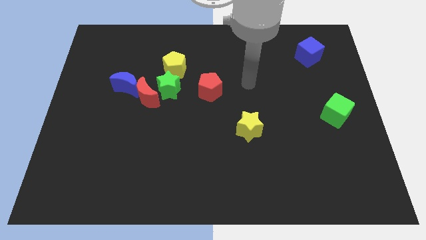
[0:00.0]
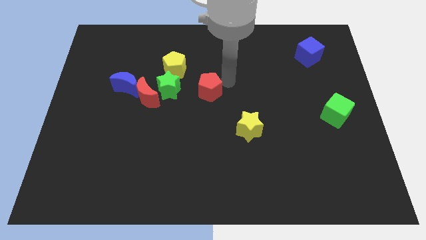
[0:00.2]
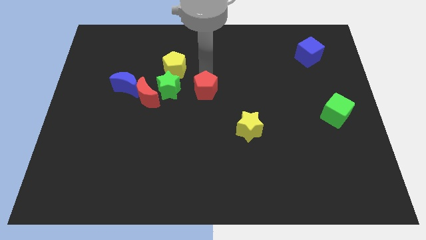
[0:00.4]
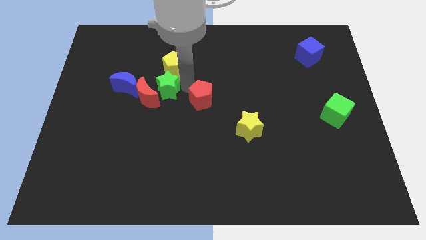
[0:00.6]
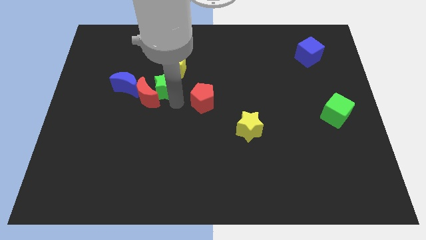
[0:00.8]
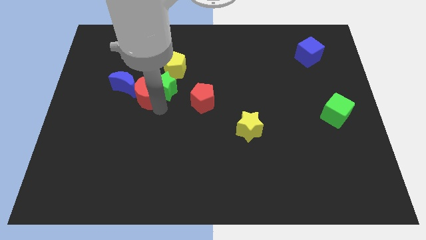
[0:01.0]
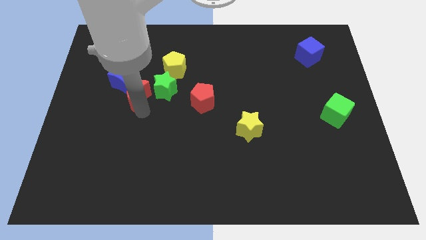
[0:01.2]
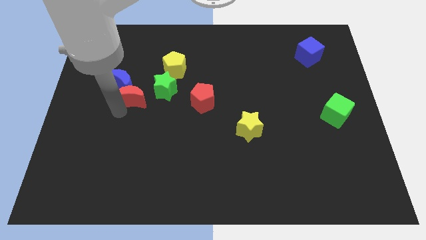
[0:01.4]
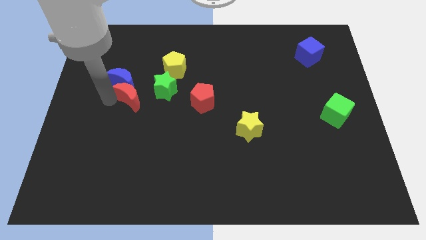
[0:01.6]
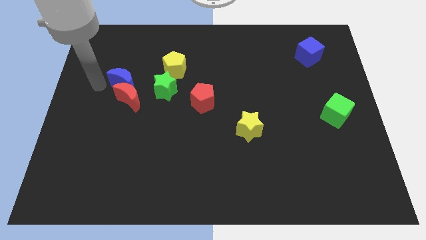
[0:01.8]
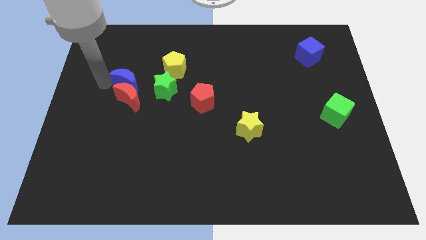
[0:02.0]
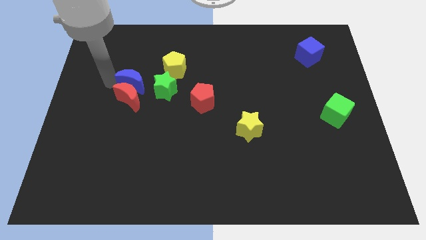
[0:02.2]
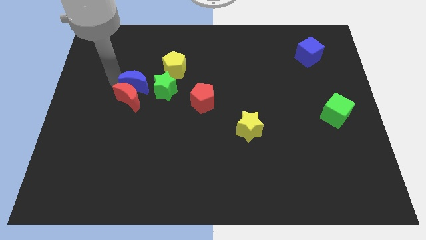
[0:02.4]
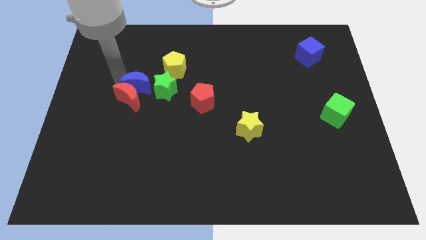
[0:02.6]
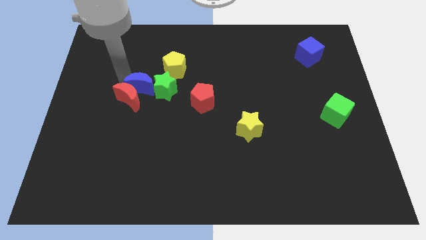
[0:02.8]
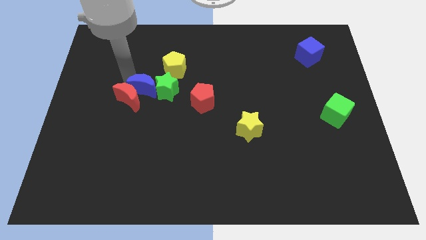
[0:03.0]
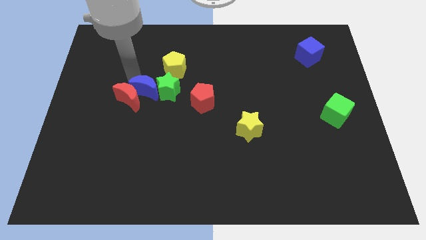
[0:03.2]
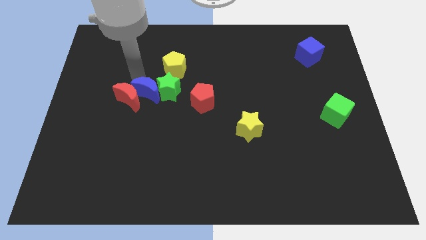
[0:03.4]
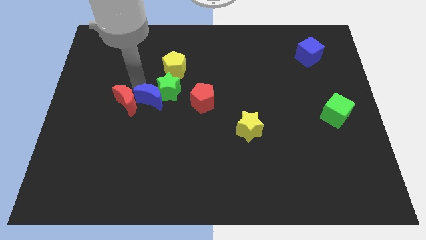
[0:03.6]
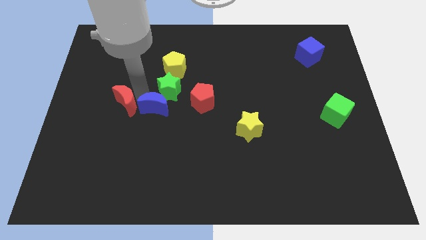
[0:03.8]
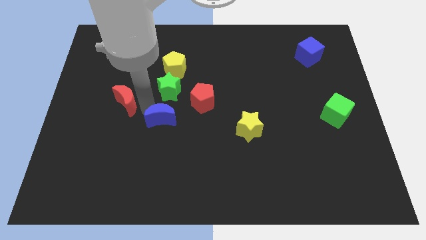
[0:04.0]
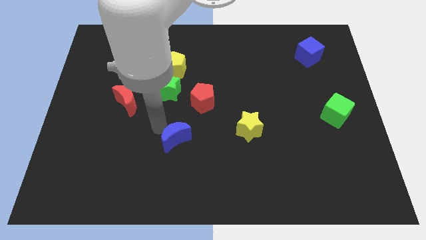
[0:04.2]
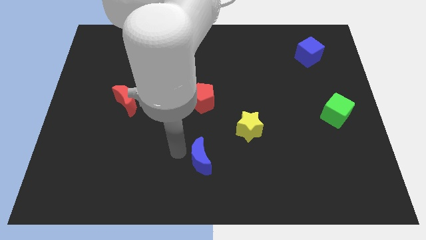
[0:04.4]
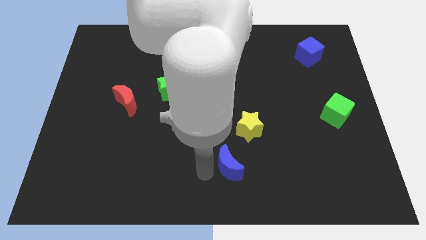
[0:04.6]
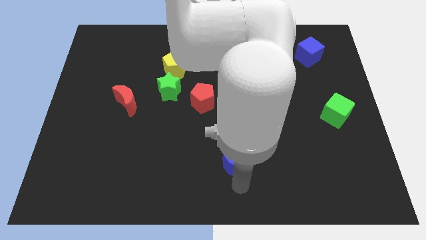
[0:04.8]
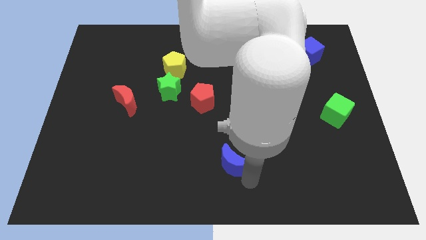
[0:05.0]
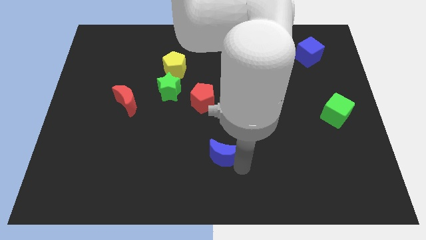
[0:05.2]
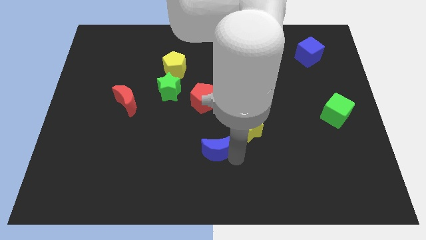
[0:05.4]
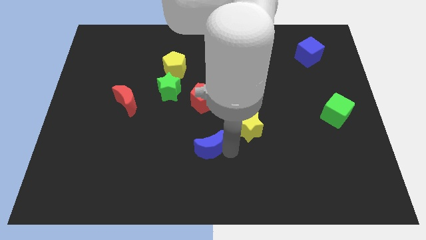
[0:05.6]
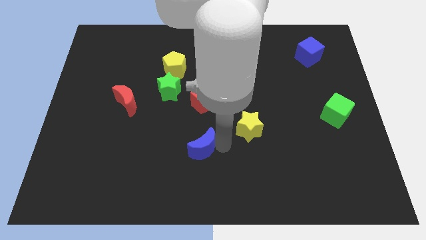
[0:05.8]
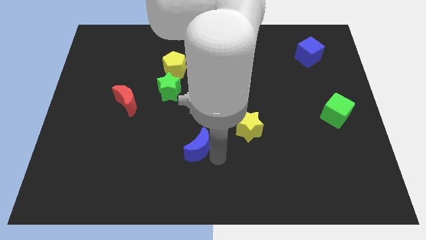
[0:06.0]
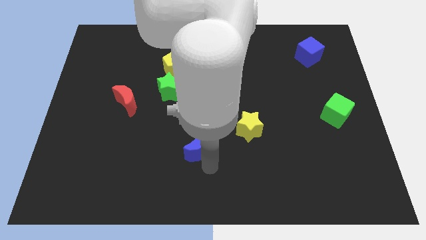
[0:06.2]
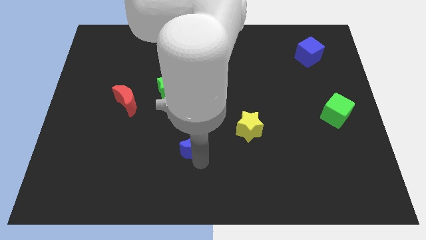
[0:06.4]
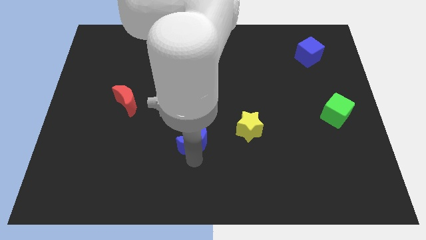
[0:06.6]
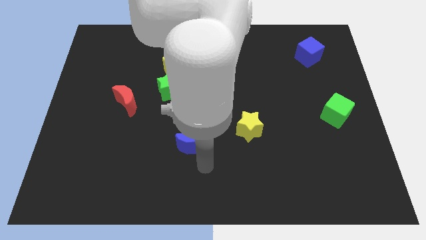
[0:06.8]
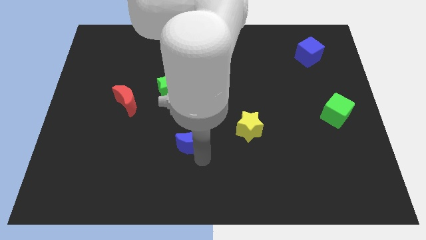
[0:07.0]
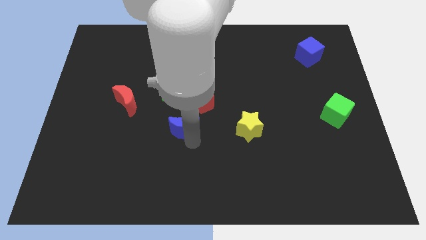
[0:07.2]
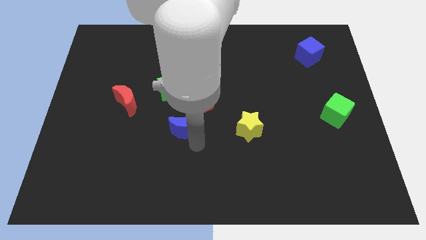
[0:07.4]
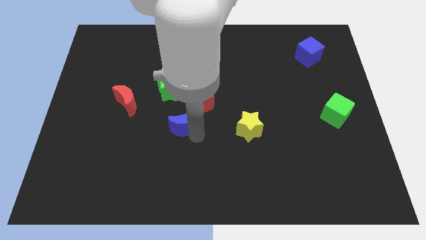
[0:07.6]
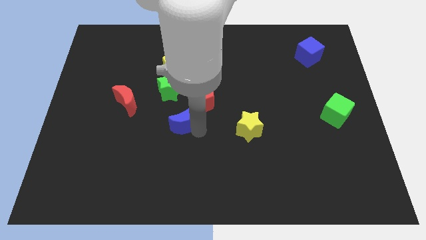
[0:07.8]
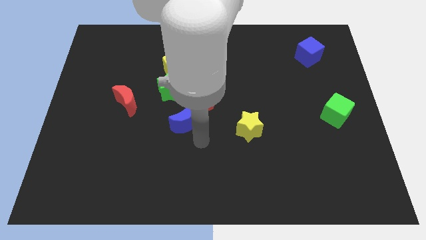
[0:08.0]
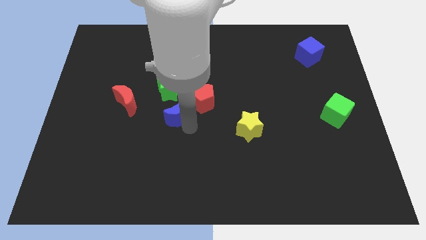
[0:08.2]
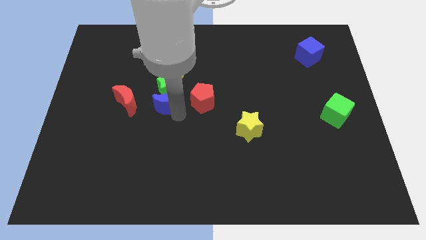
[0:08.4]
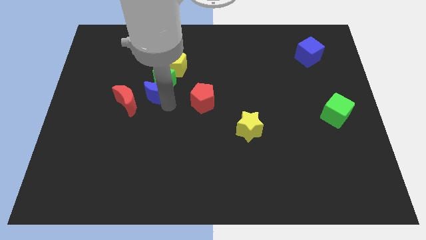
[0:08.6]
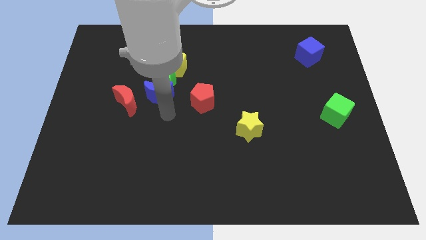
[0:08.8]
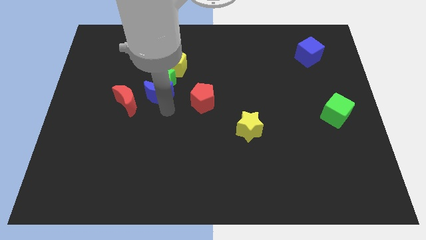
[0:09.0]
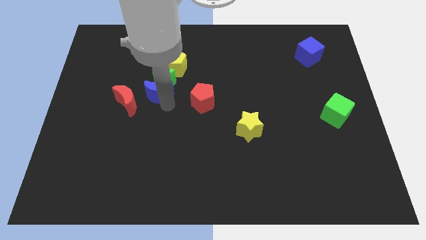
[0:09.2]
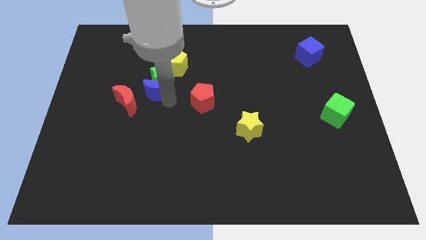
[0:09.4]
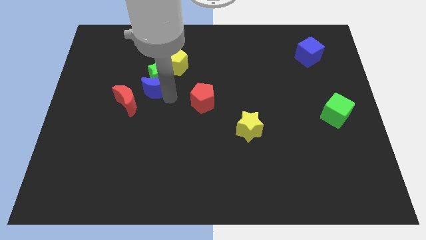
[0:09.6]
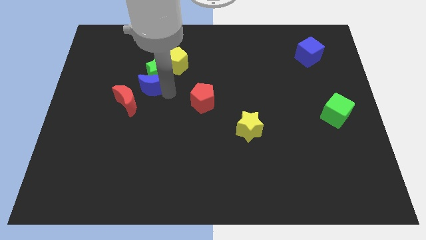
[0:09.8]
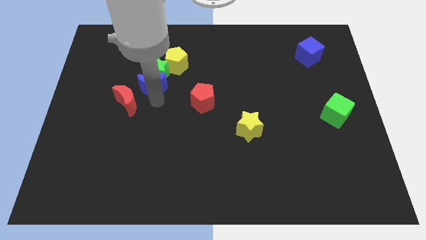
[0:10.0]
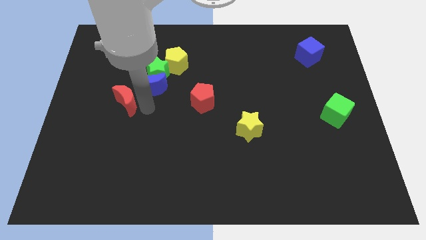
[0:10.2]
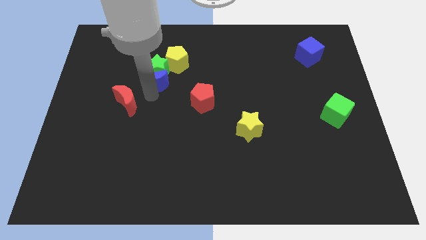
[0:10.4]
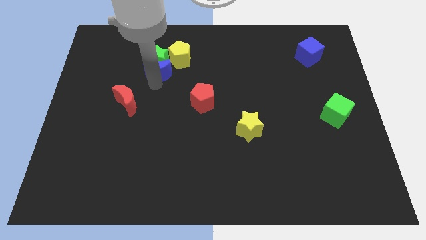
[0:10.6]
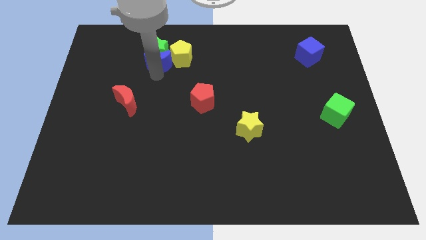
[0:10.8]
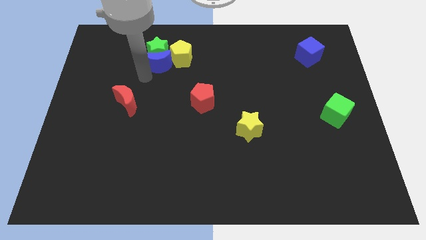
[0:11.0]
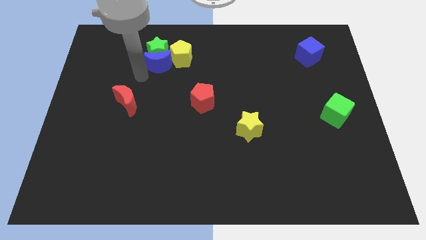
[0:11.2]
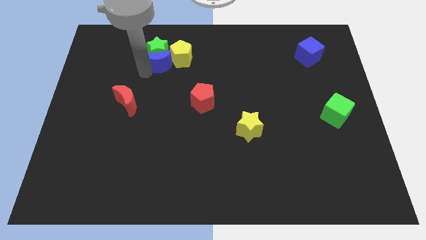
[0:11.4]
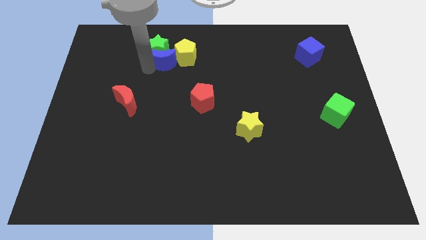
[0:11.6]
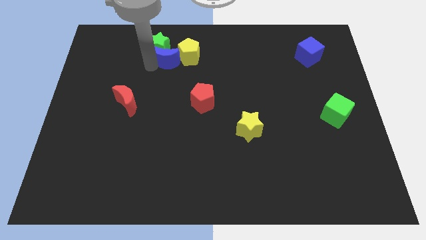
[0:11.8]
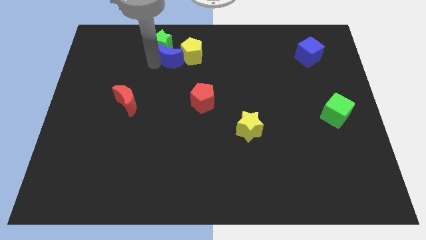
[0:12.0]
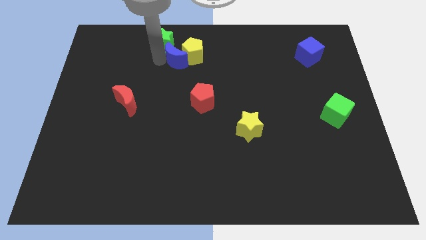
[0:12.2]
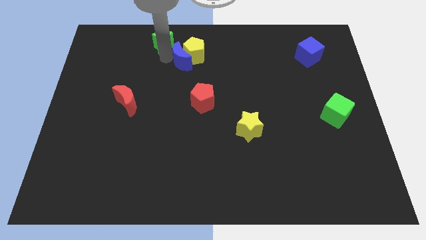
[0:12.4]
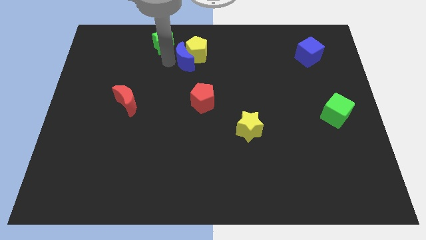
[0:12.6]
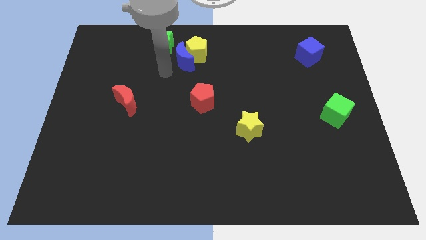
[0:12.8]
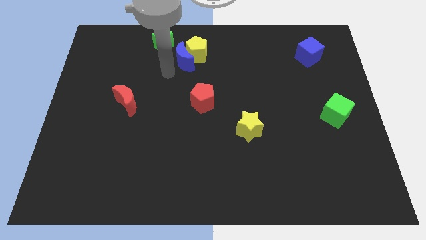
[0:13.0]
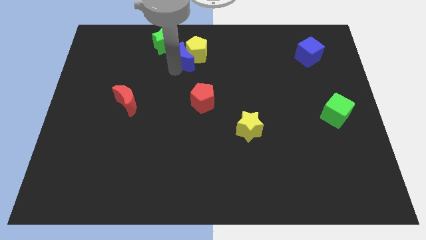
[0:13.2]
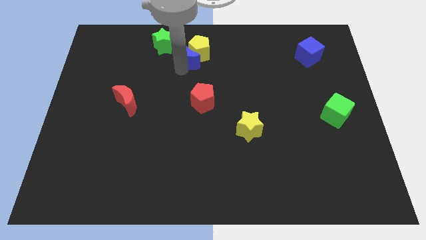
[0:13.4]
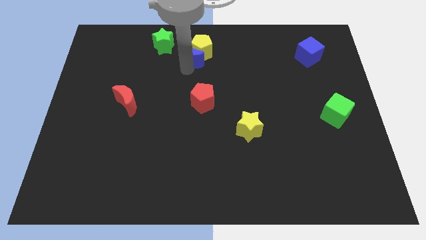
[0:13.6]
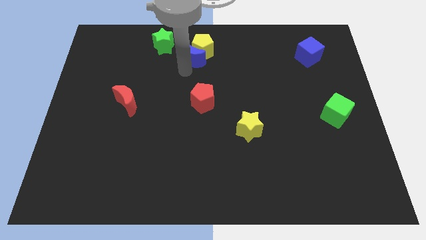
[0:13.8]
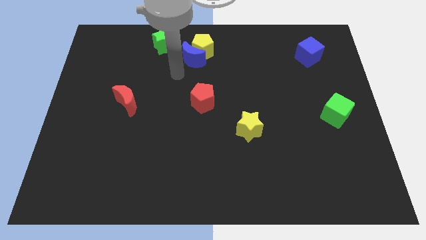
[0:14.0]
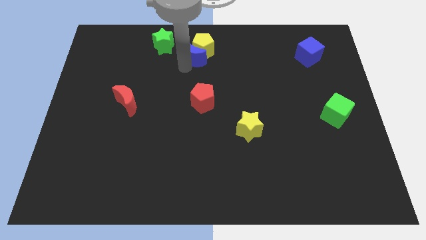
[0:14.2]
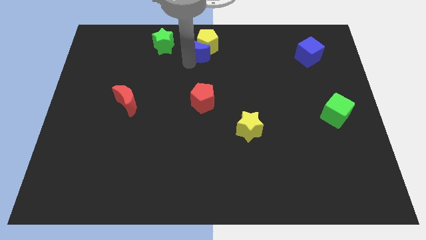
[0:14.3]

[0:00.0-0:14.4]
push the blue moon to the top
